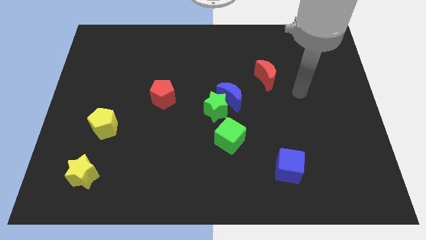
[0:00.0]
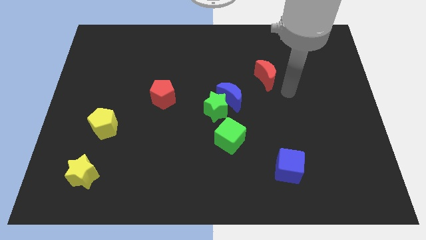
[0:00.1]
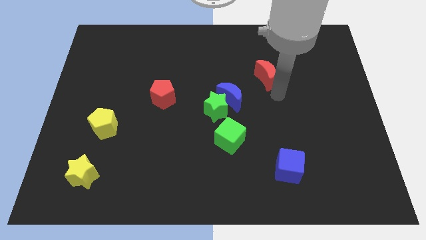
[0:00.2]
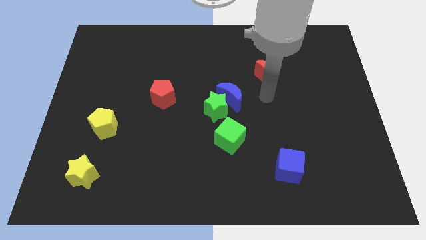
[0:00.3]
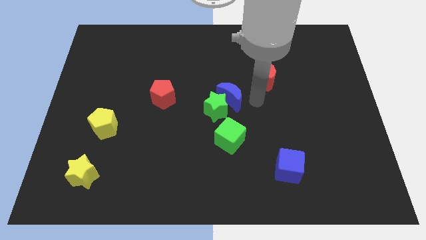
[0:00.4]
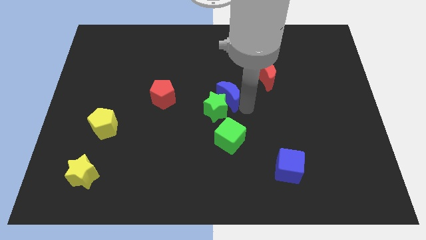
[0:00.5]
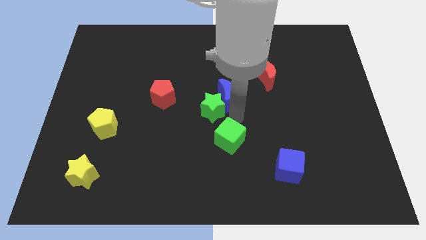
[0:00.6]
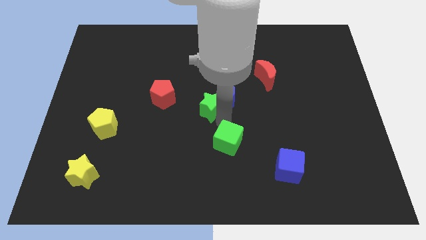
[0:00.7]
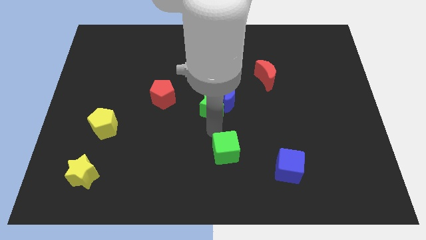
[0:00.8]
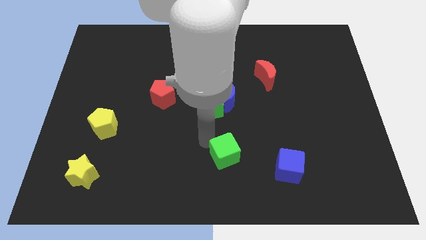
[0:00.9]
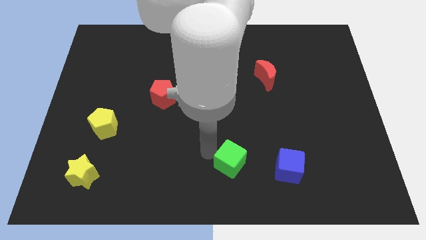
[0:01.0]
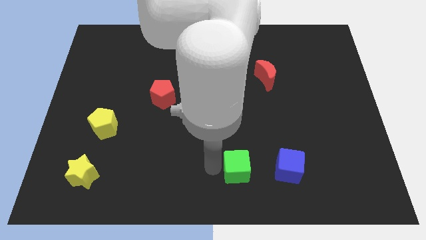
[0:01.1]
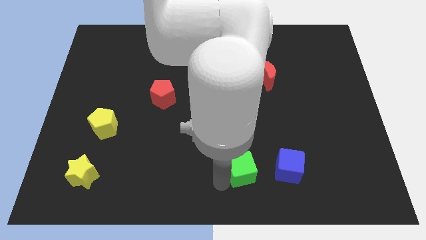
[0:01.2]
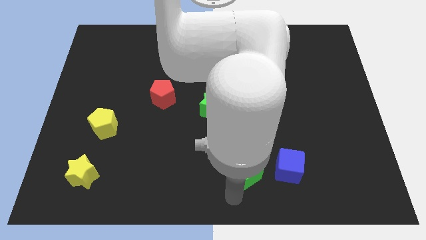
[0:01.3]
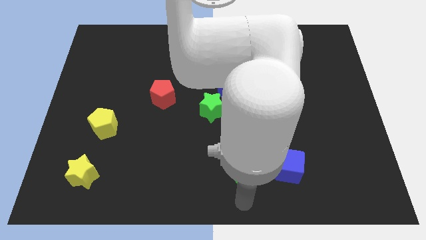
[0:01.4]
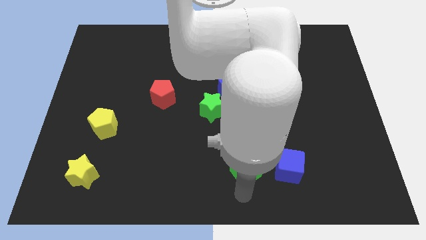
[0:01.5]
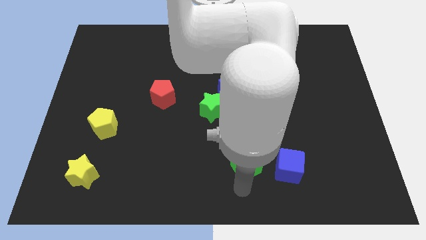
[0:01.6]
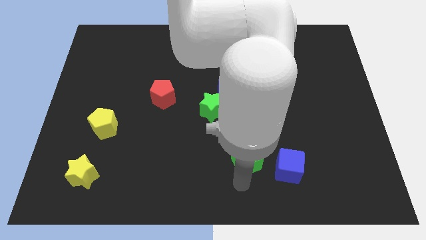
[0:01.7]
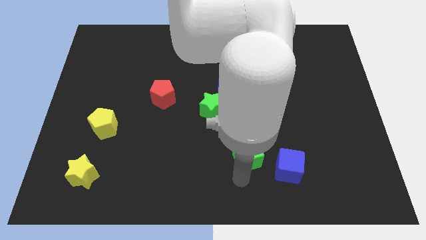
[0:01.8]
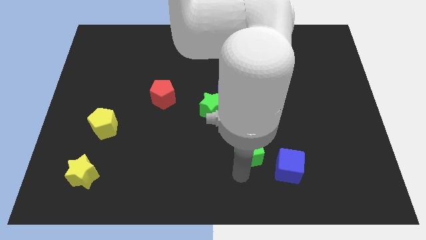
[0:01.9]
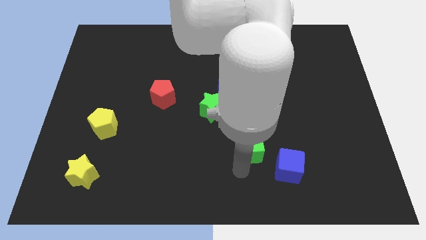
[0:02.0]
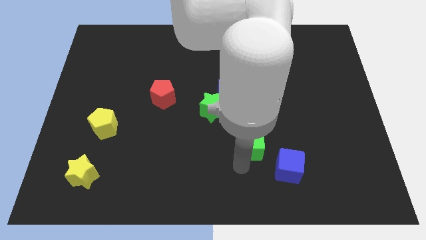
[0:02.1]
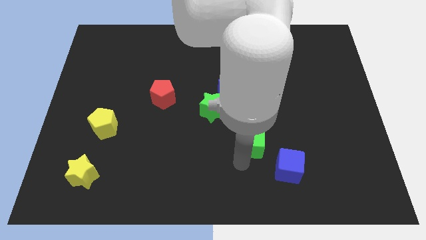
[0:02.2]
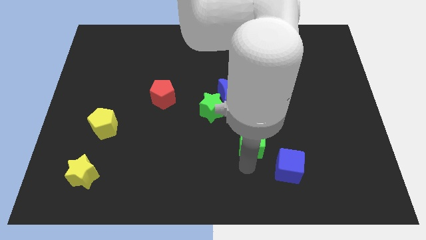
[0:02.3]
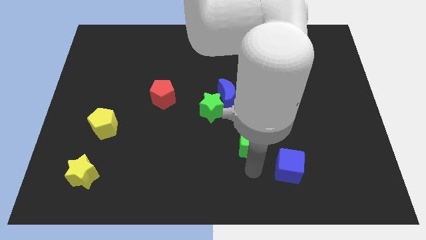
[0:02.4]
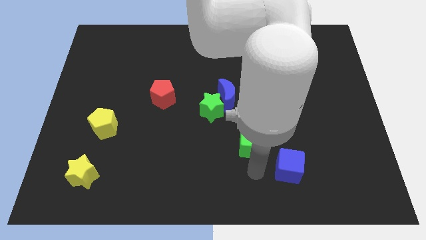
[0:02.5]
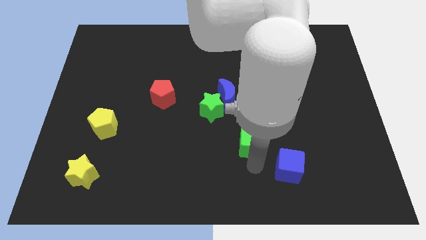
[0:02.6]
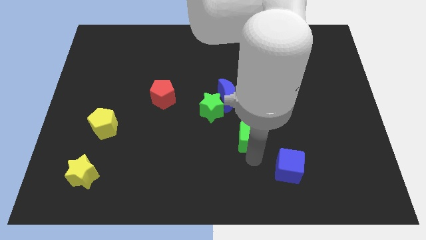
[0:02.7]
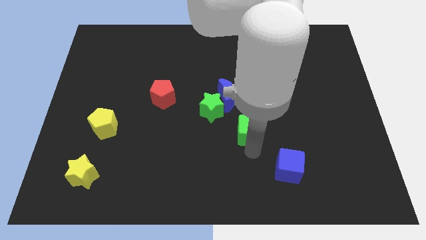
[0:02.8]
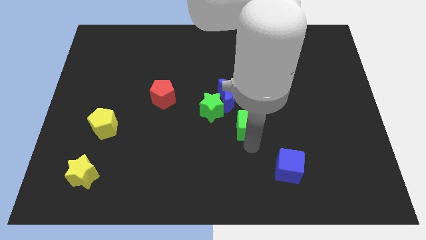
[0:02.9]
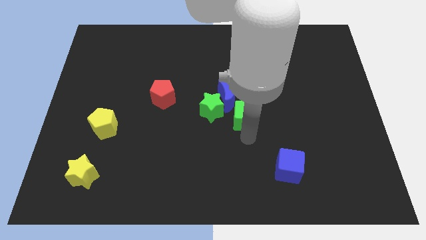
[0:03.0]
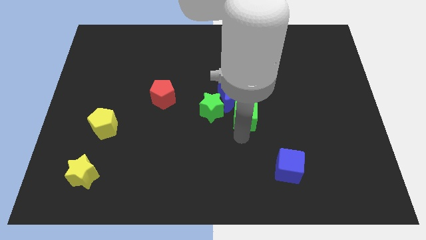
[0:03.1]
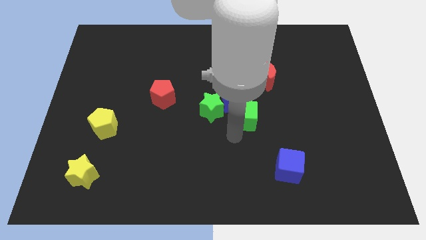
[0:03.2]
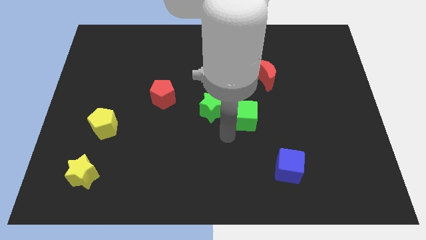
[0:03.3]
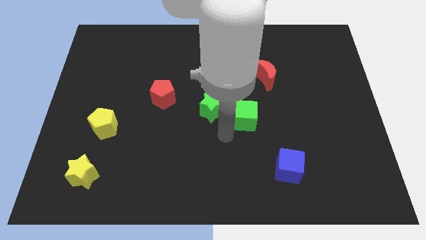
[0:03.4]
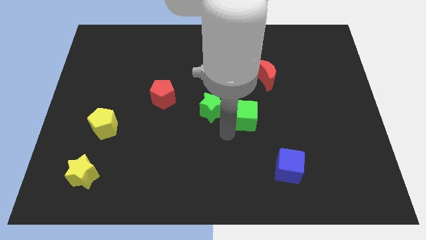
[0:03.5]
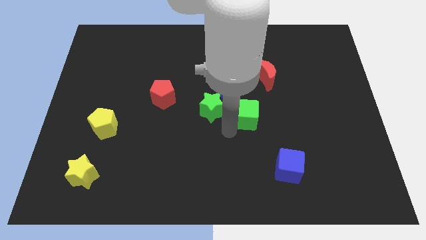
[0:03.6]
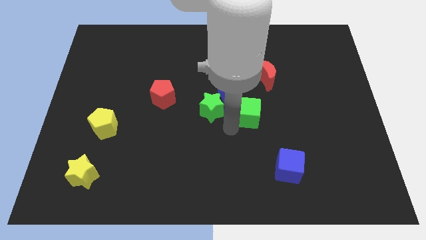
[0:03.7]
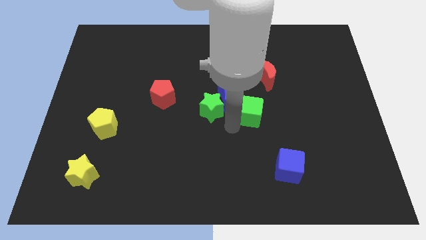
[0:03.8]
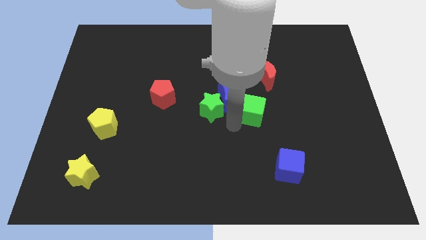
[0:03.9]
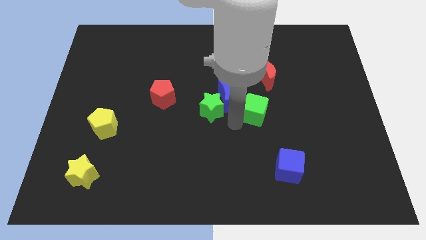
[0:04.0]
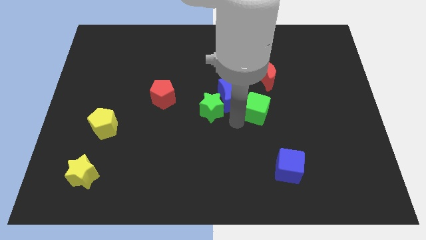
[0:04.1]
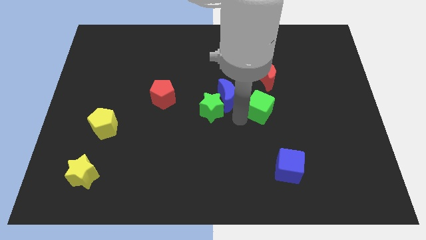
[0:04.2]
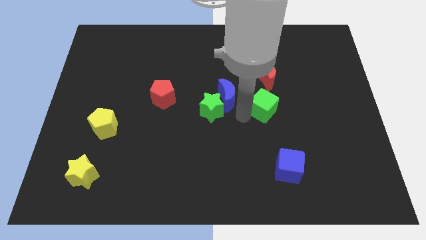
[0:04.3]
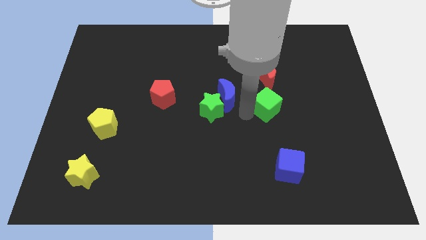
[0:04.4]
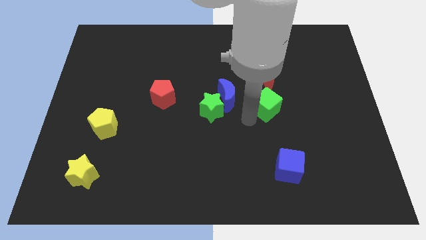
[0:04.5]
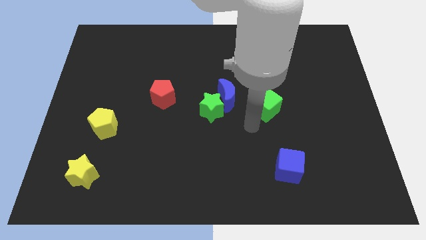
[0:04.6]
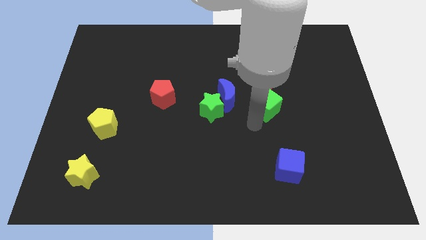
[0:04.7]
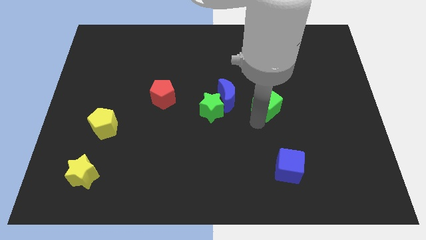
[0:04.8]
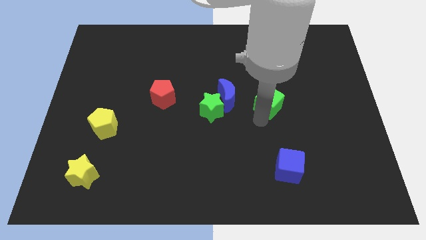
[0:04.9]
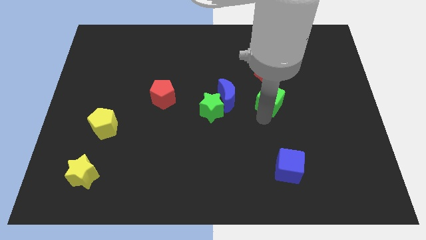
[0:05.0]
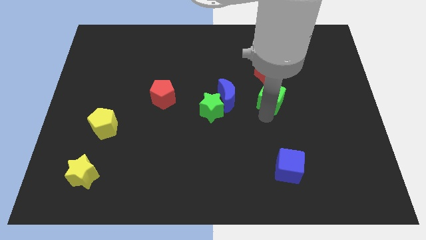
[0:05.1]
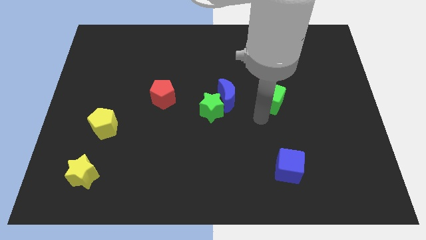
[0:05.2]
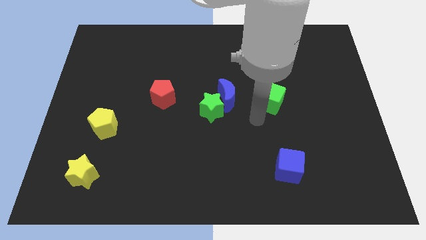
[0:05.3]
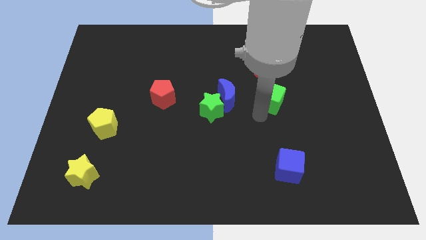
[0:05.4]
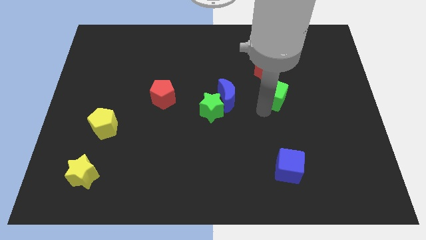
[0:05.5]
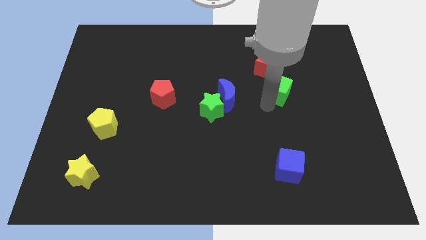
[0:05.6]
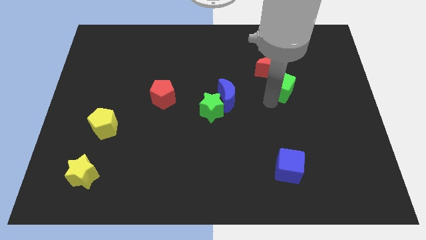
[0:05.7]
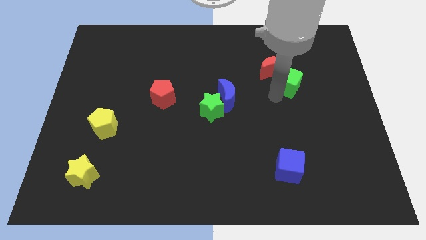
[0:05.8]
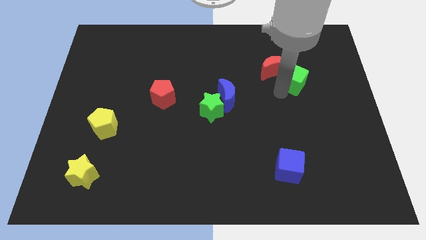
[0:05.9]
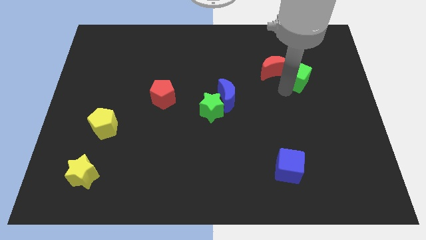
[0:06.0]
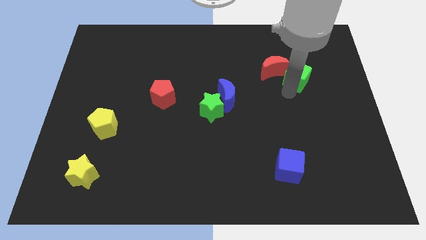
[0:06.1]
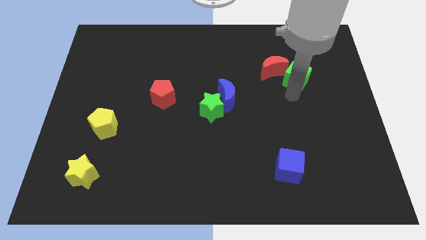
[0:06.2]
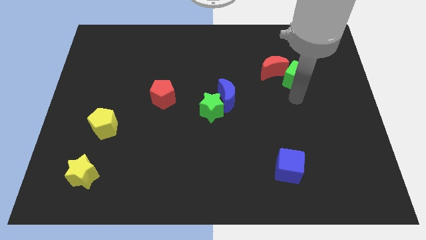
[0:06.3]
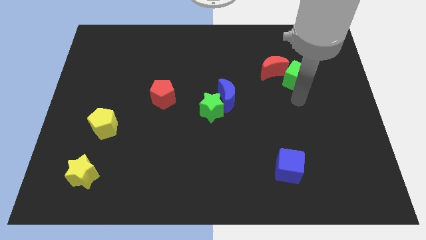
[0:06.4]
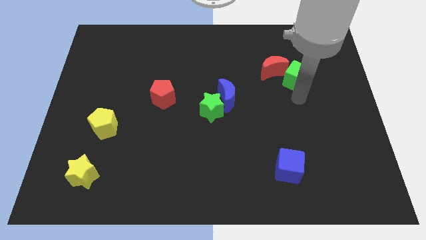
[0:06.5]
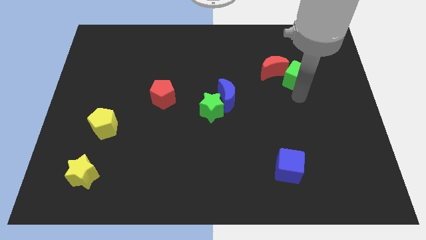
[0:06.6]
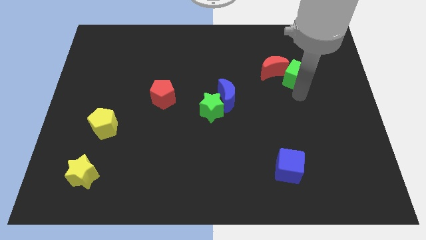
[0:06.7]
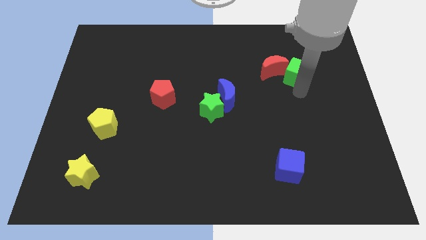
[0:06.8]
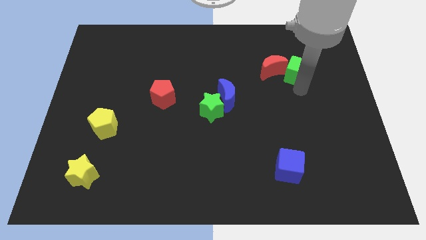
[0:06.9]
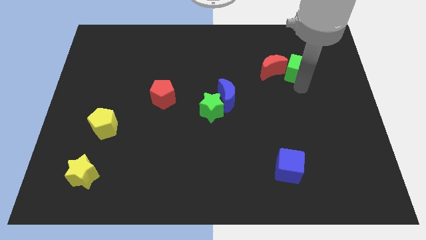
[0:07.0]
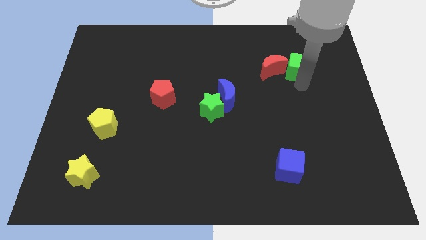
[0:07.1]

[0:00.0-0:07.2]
move the green cube to the top right side of the red moon
